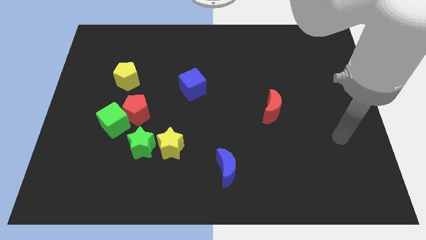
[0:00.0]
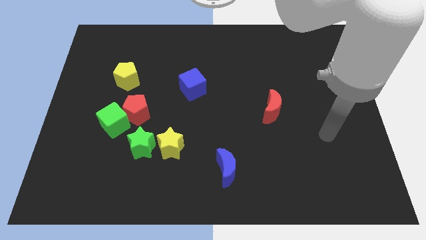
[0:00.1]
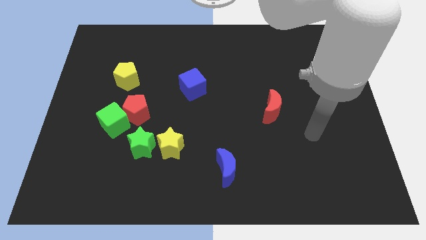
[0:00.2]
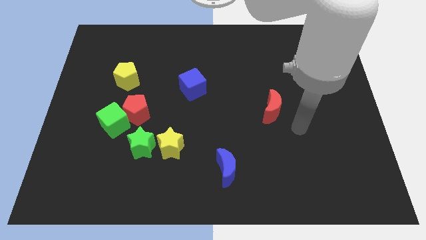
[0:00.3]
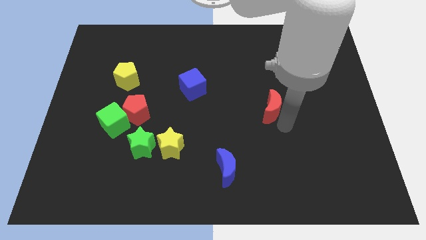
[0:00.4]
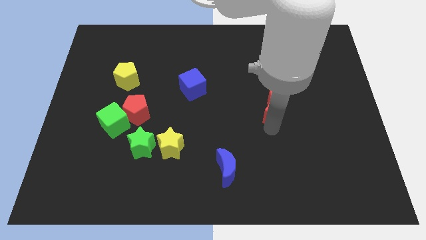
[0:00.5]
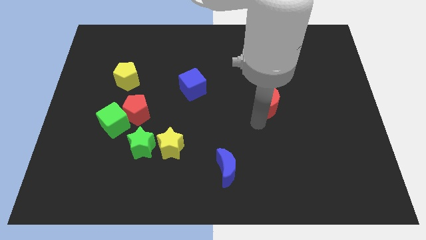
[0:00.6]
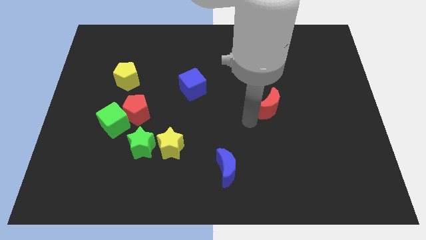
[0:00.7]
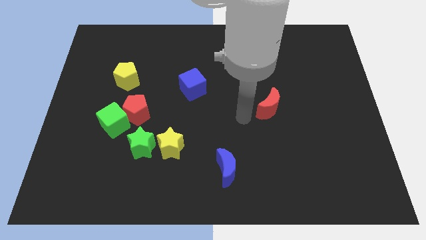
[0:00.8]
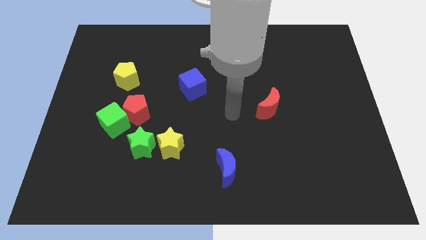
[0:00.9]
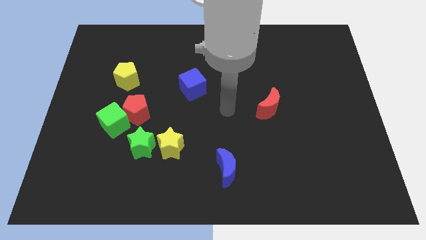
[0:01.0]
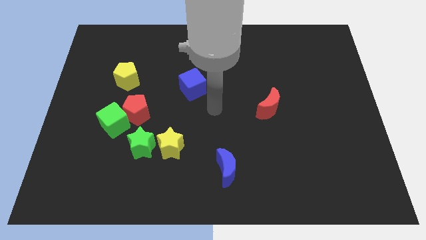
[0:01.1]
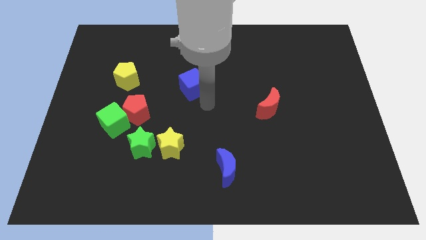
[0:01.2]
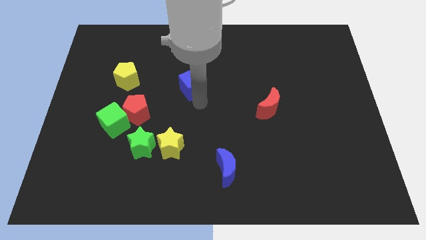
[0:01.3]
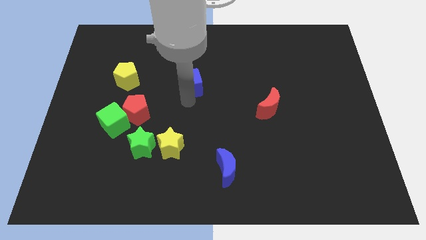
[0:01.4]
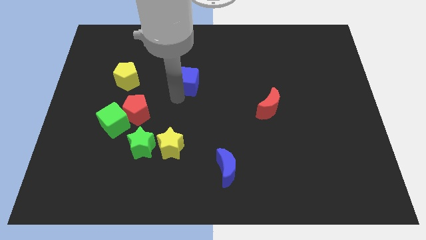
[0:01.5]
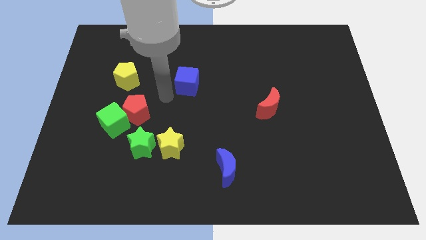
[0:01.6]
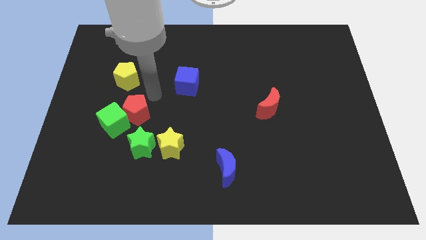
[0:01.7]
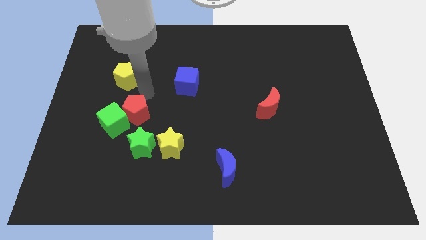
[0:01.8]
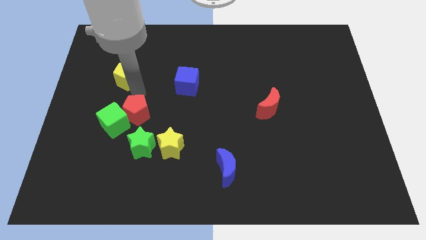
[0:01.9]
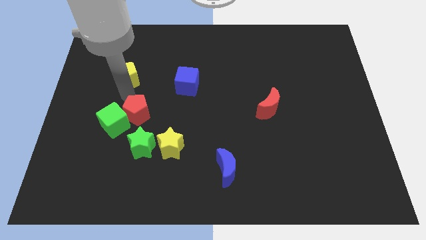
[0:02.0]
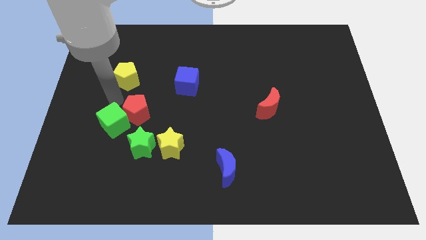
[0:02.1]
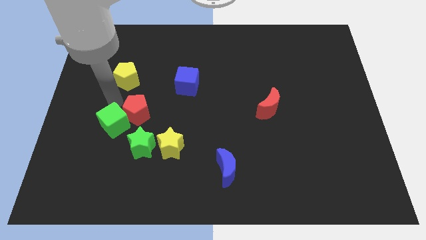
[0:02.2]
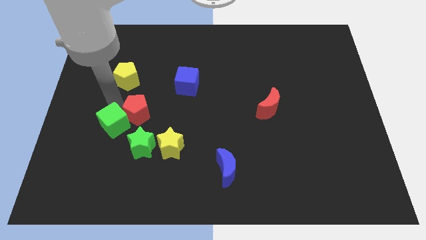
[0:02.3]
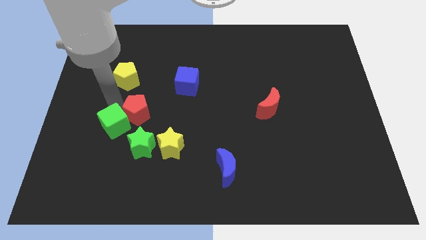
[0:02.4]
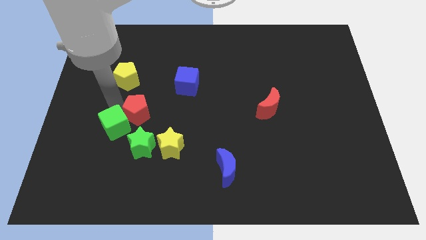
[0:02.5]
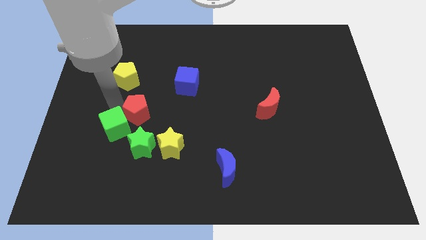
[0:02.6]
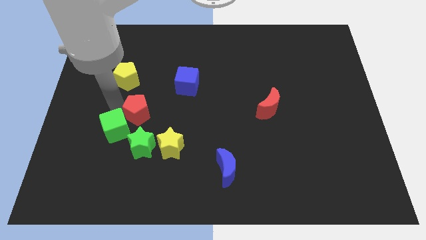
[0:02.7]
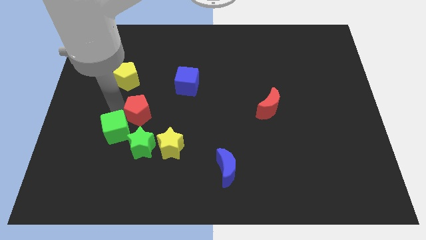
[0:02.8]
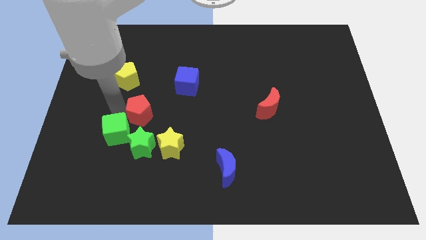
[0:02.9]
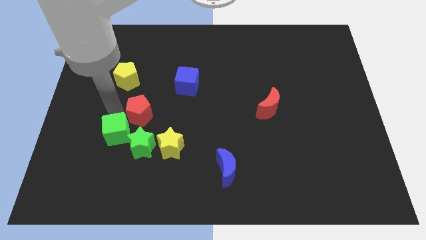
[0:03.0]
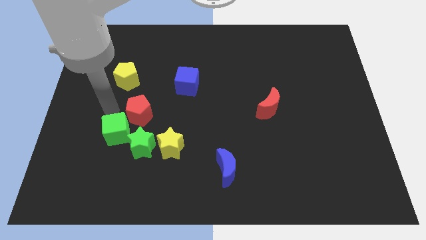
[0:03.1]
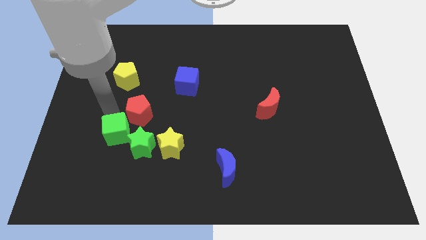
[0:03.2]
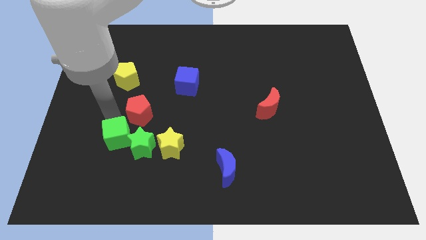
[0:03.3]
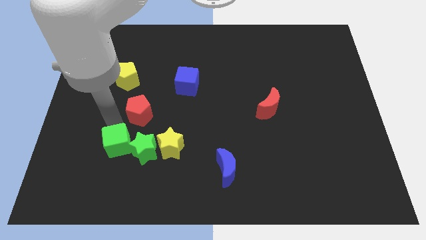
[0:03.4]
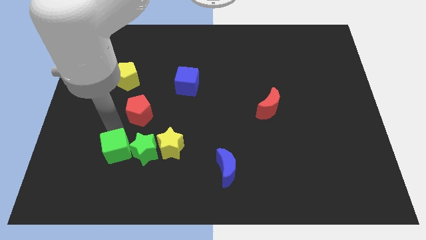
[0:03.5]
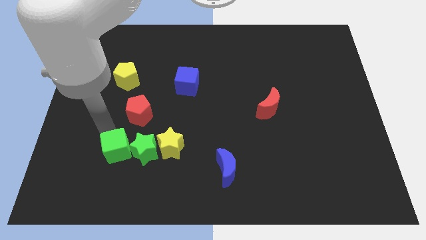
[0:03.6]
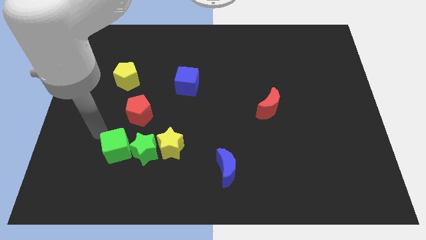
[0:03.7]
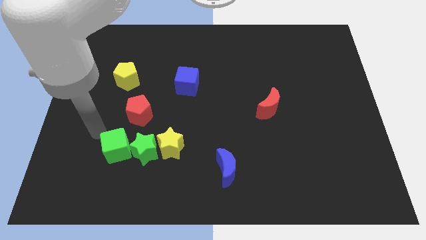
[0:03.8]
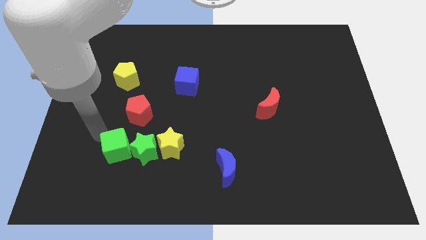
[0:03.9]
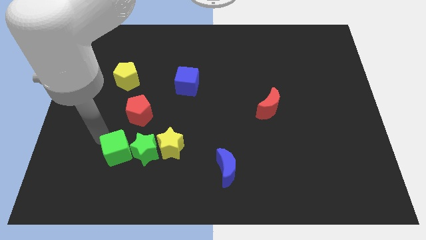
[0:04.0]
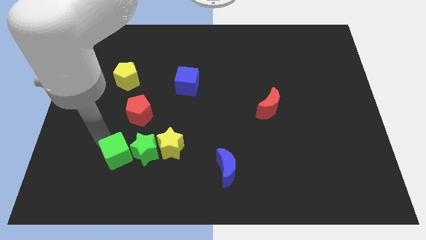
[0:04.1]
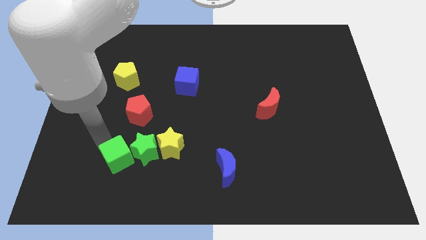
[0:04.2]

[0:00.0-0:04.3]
slide the green cube diagonally downwards and to the right somewhat

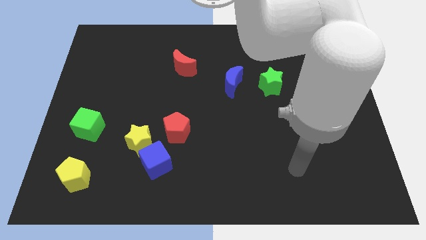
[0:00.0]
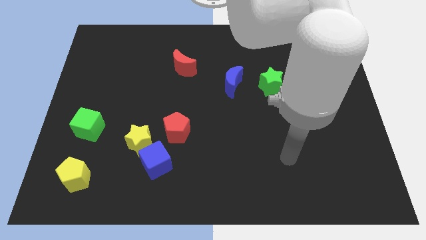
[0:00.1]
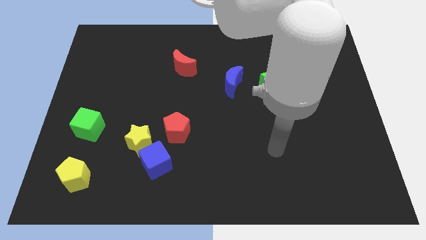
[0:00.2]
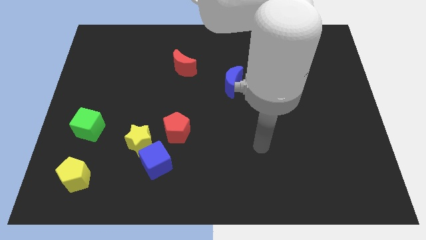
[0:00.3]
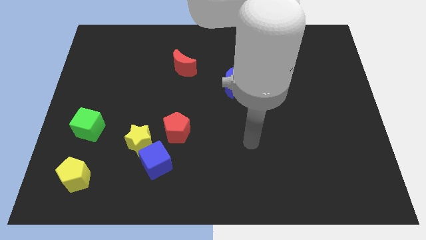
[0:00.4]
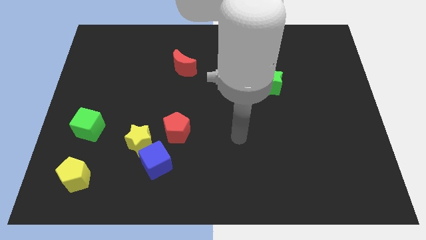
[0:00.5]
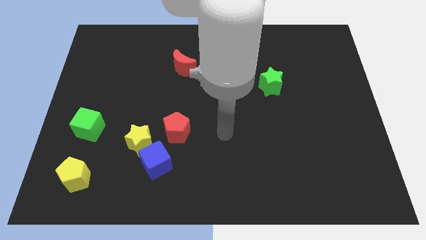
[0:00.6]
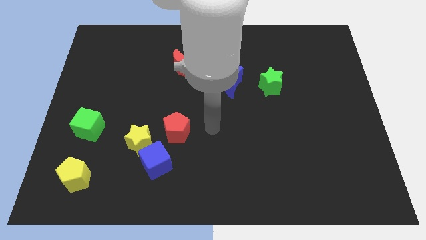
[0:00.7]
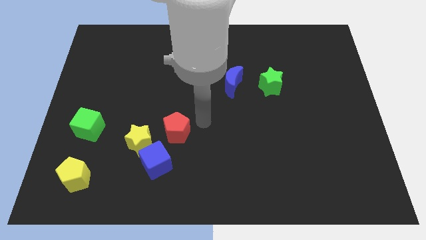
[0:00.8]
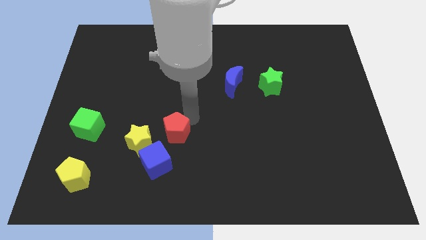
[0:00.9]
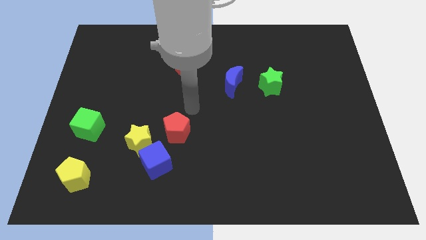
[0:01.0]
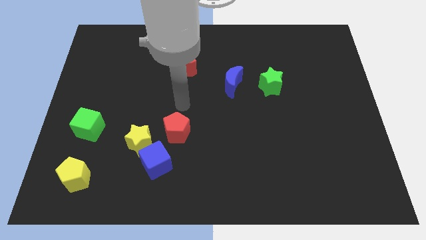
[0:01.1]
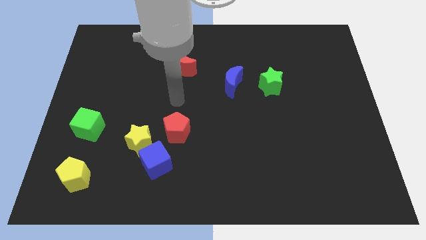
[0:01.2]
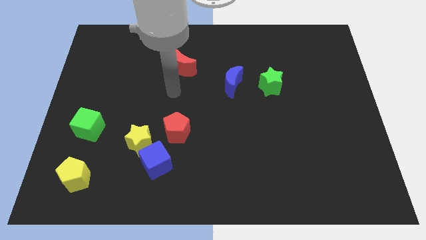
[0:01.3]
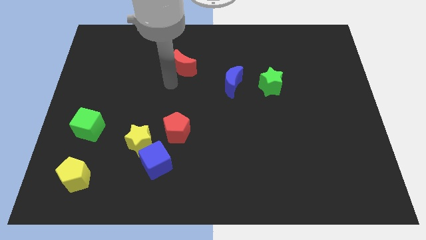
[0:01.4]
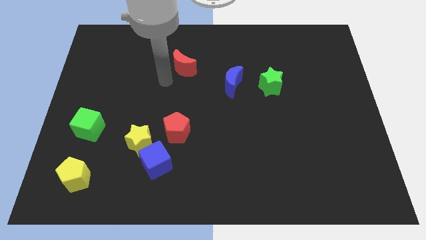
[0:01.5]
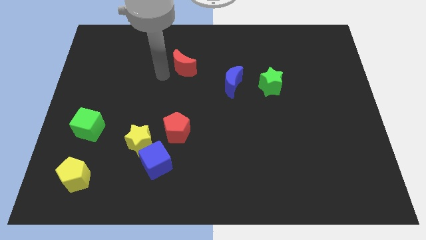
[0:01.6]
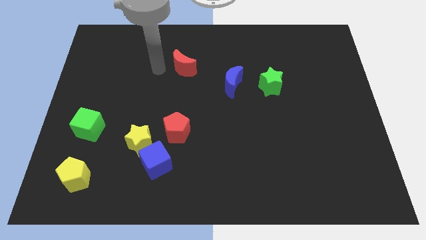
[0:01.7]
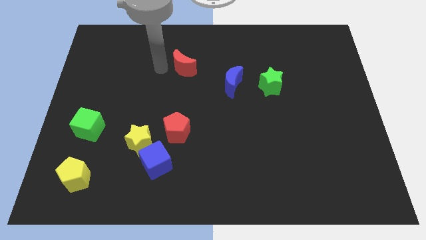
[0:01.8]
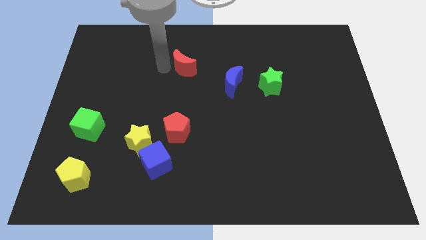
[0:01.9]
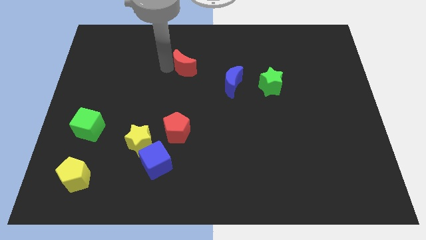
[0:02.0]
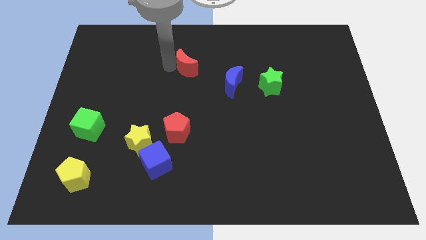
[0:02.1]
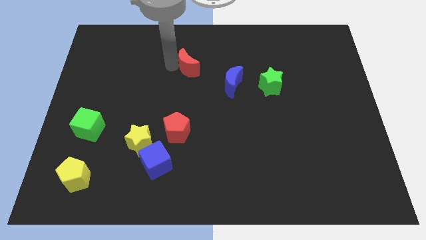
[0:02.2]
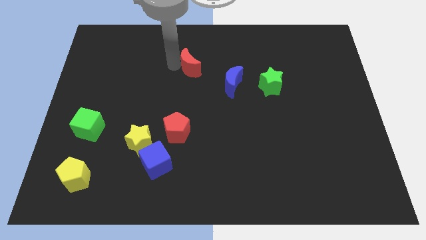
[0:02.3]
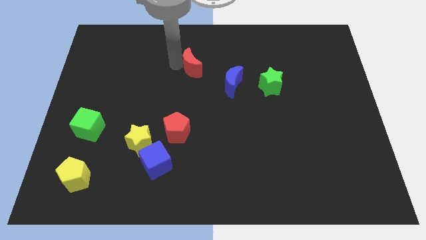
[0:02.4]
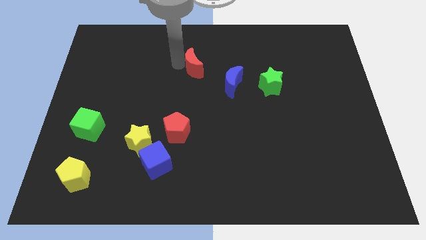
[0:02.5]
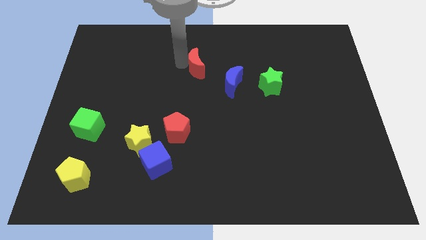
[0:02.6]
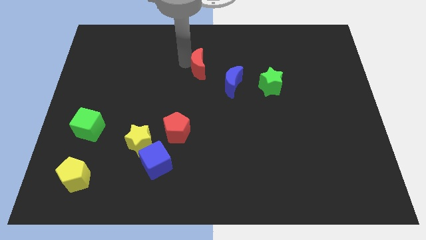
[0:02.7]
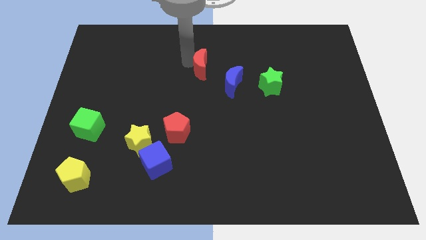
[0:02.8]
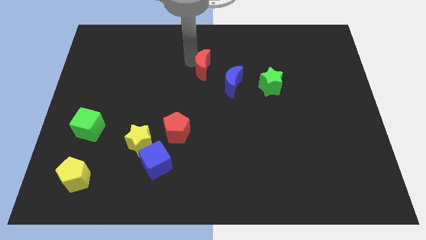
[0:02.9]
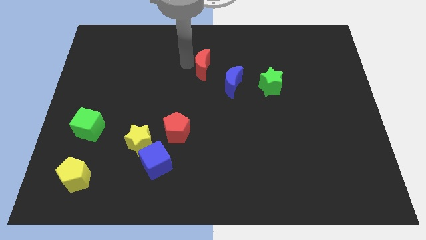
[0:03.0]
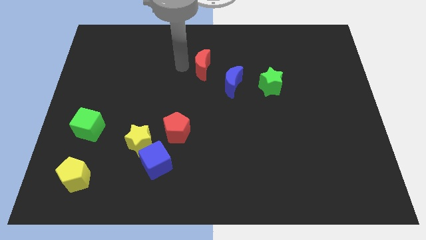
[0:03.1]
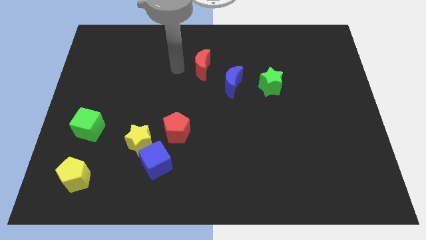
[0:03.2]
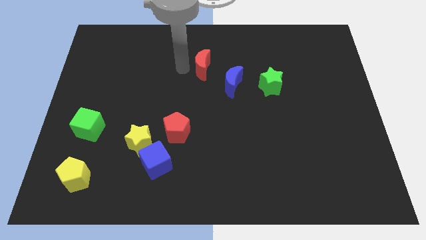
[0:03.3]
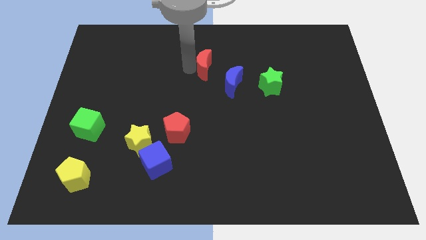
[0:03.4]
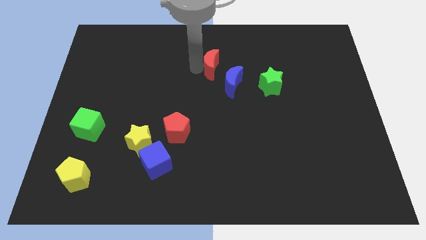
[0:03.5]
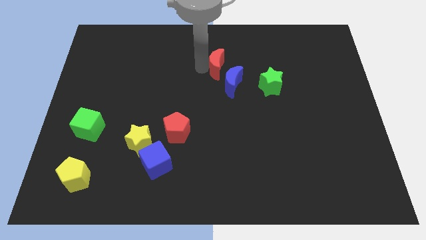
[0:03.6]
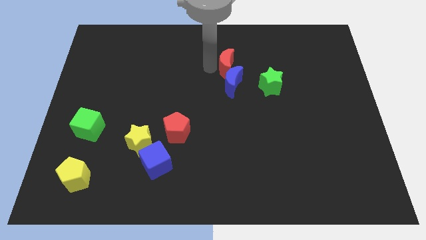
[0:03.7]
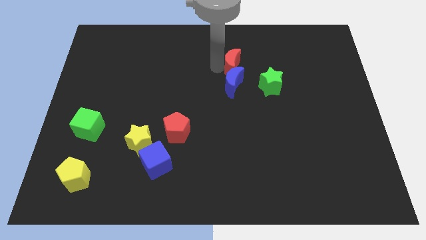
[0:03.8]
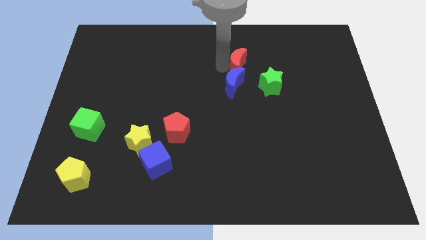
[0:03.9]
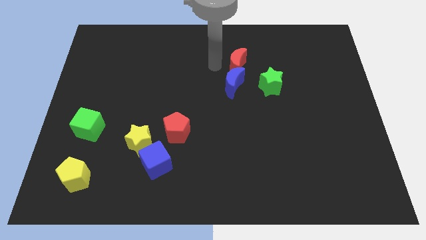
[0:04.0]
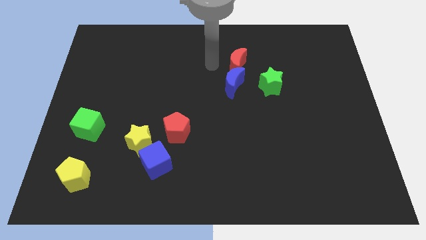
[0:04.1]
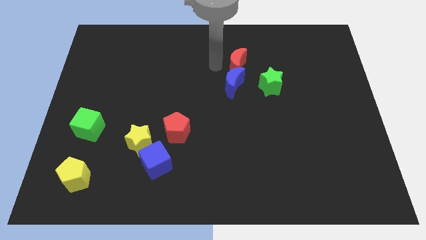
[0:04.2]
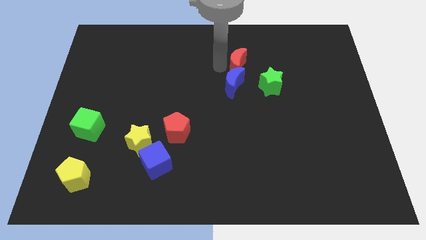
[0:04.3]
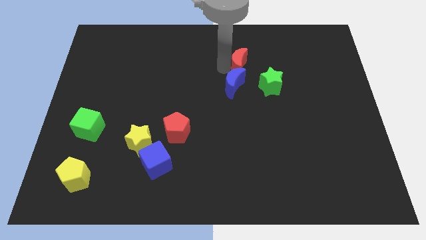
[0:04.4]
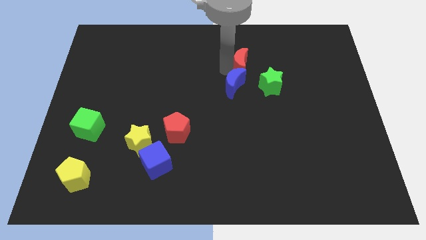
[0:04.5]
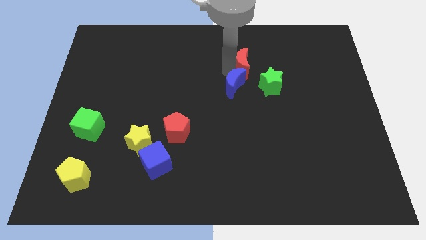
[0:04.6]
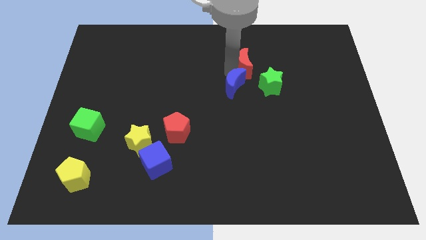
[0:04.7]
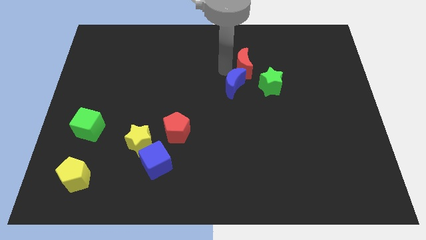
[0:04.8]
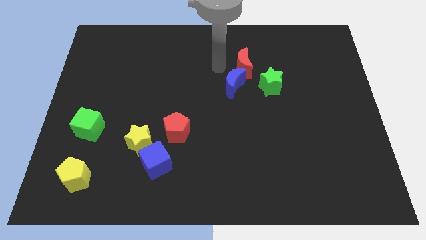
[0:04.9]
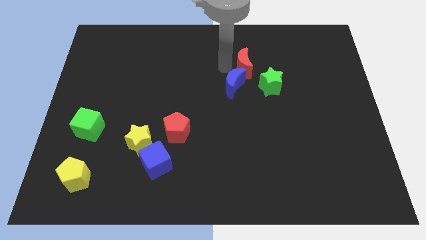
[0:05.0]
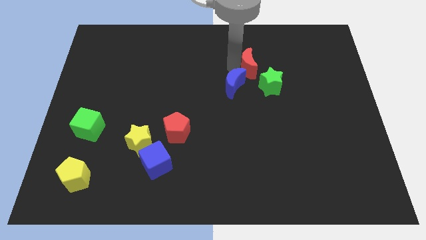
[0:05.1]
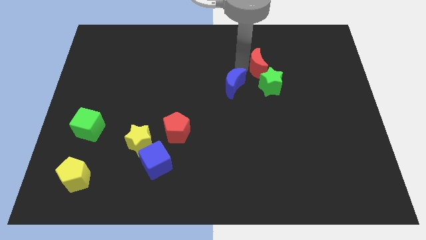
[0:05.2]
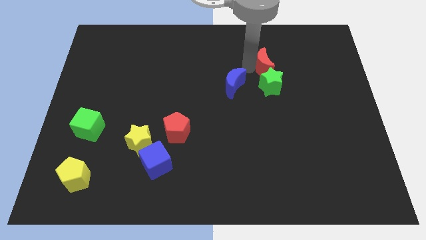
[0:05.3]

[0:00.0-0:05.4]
slide the red moon to the right
